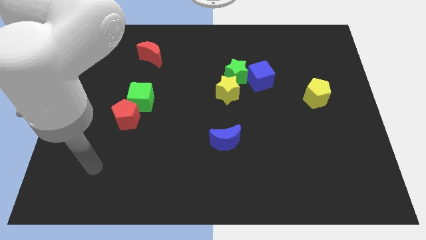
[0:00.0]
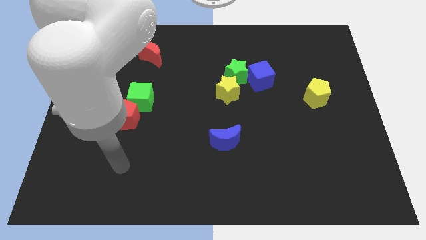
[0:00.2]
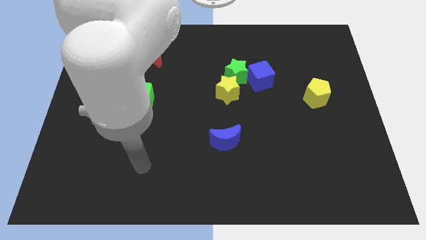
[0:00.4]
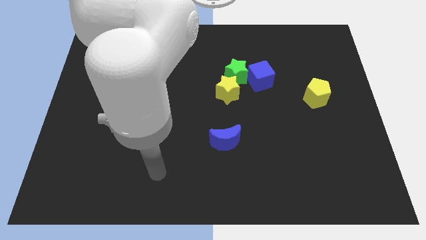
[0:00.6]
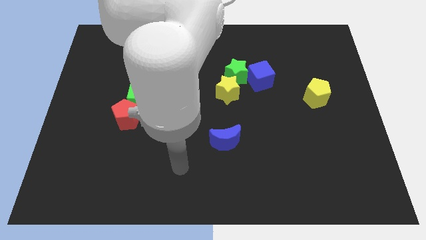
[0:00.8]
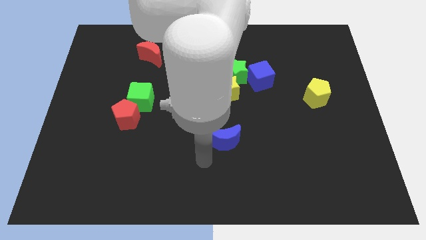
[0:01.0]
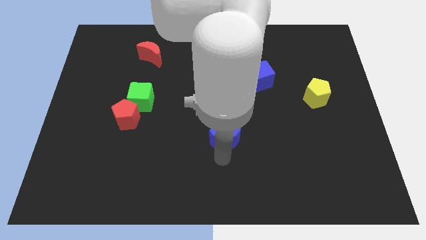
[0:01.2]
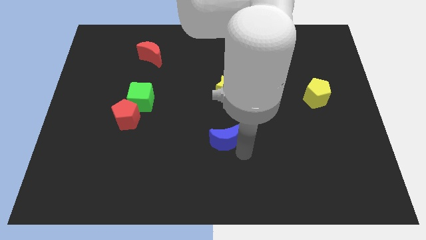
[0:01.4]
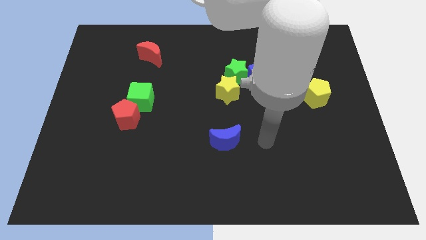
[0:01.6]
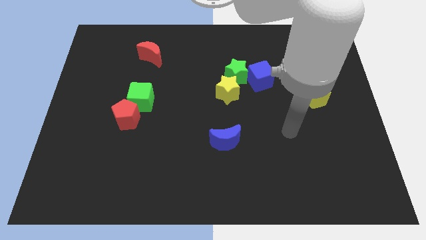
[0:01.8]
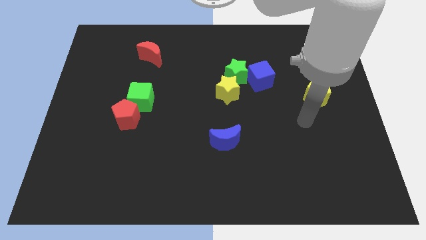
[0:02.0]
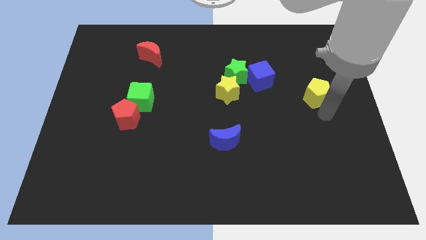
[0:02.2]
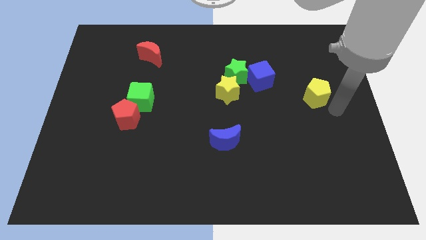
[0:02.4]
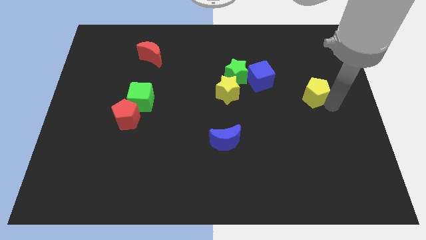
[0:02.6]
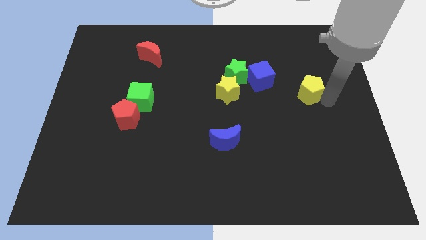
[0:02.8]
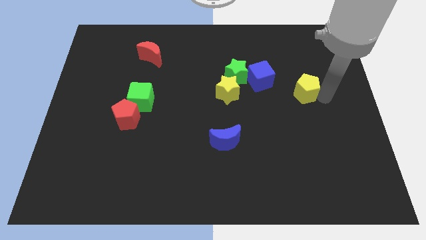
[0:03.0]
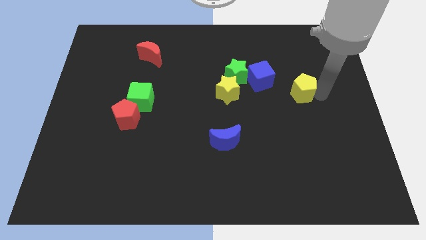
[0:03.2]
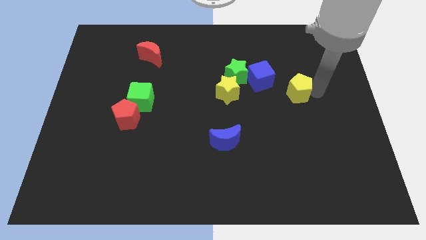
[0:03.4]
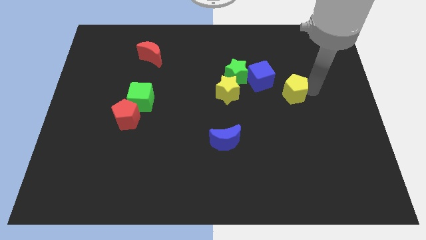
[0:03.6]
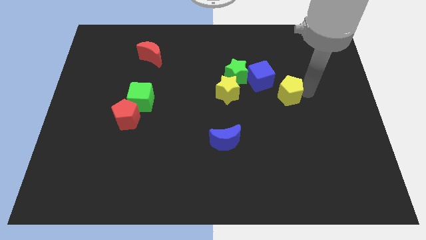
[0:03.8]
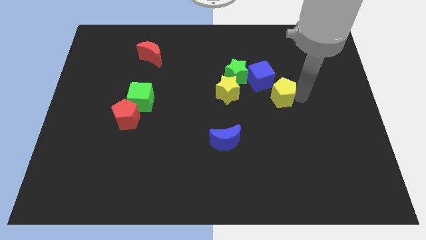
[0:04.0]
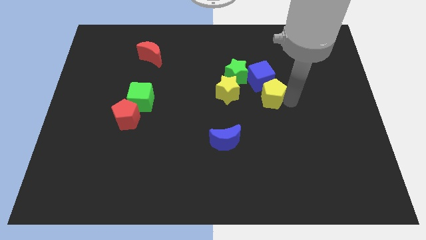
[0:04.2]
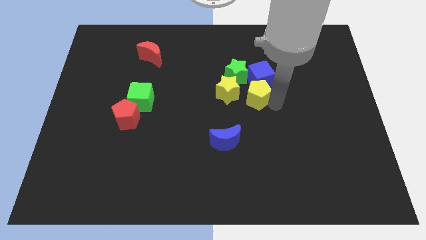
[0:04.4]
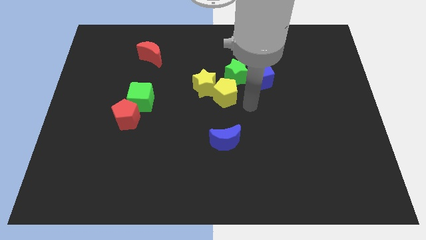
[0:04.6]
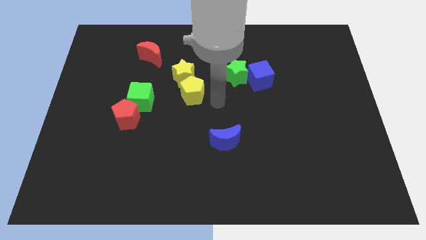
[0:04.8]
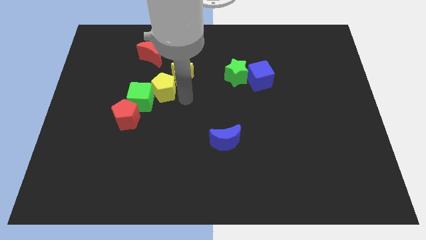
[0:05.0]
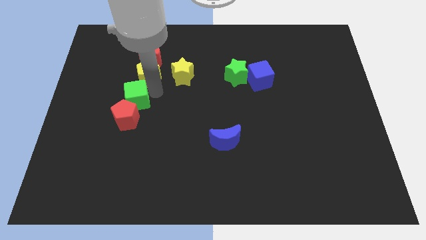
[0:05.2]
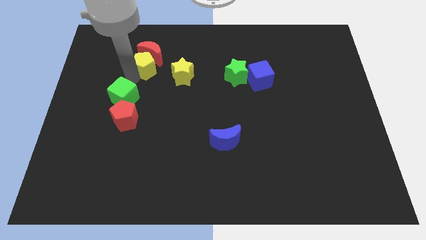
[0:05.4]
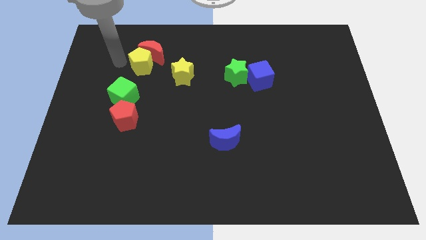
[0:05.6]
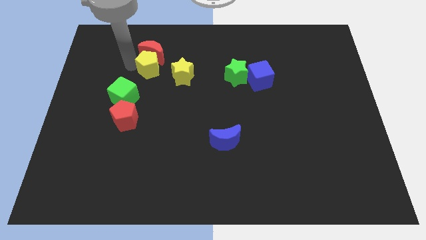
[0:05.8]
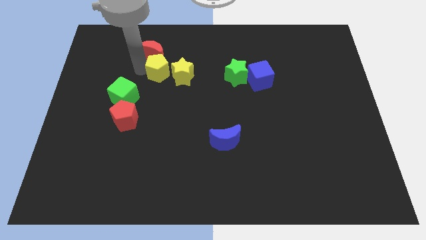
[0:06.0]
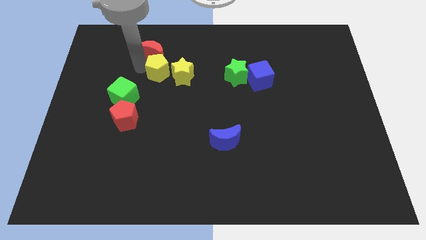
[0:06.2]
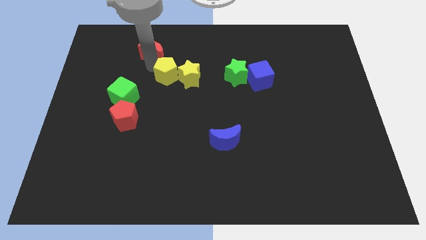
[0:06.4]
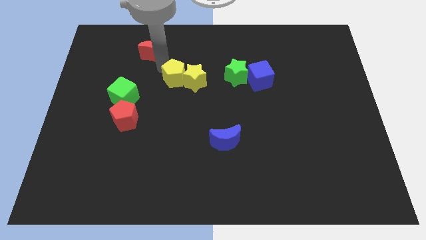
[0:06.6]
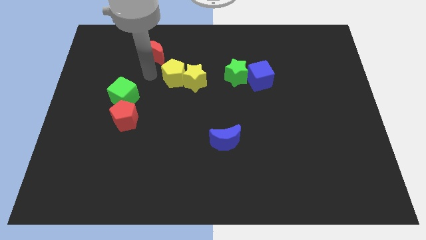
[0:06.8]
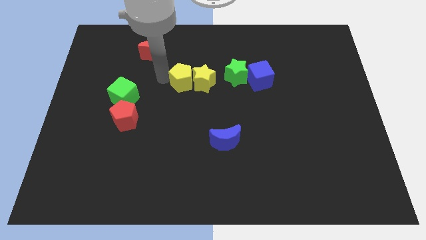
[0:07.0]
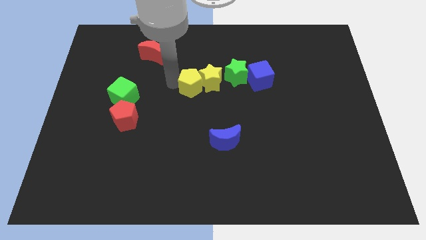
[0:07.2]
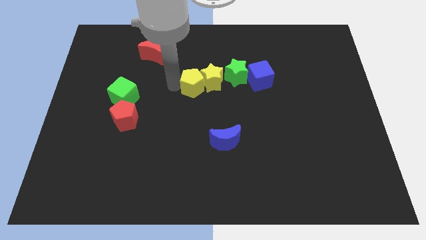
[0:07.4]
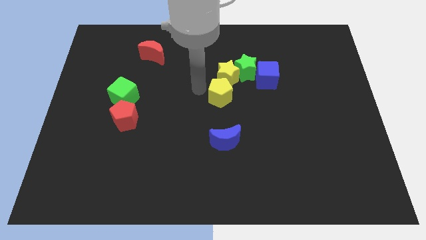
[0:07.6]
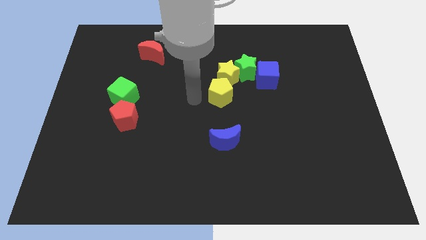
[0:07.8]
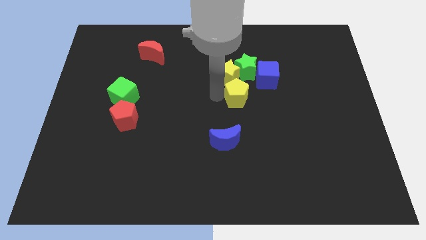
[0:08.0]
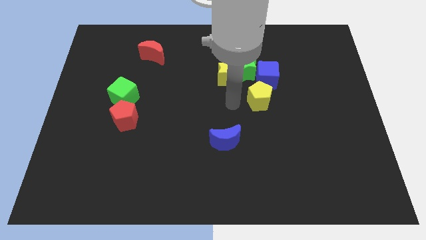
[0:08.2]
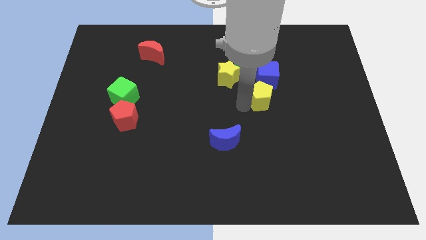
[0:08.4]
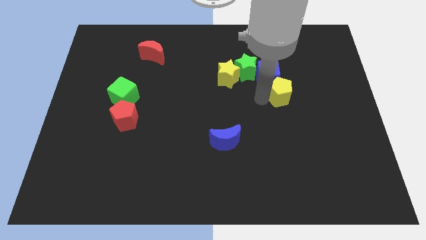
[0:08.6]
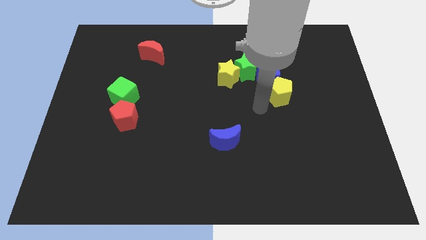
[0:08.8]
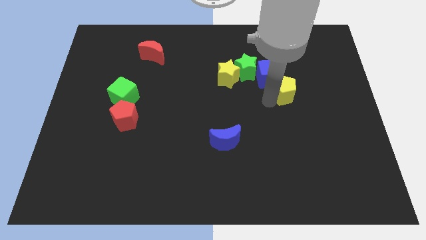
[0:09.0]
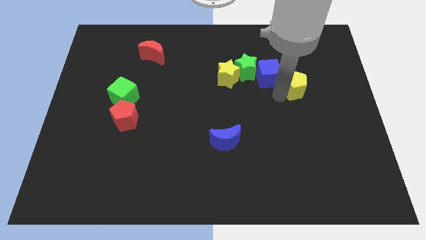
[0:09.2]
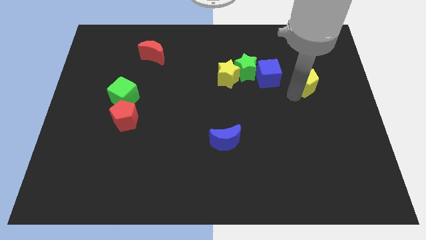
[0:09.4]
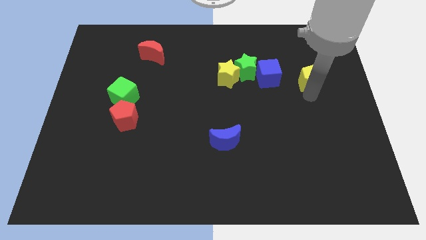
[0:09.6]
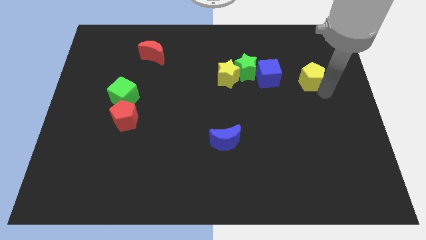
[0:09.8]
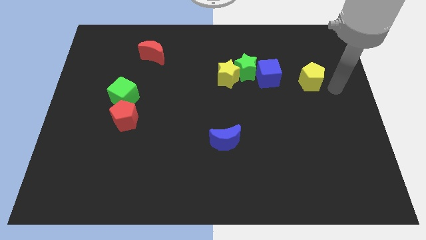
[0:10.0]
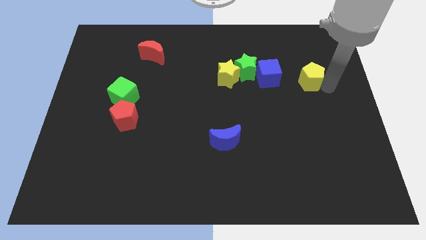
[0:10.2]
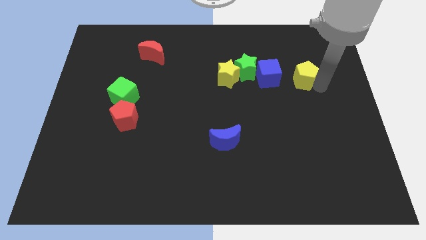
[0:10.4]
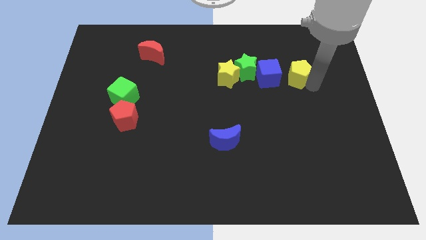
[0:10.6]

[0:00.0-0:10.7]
slightly move the yellow pentagon up and left

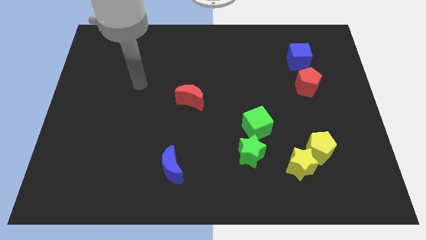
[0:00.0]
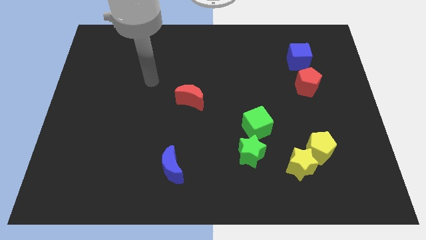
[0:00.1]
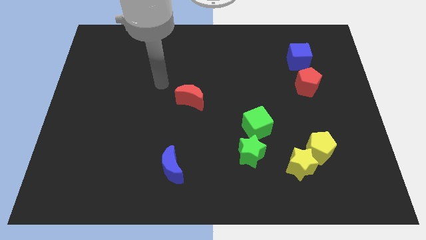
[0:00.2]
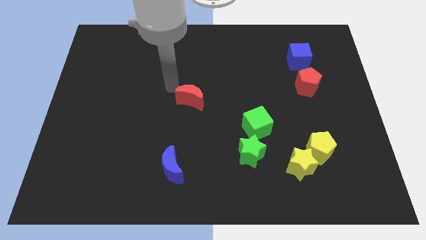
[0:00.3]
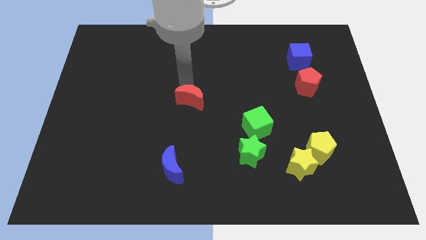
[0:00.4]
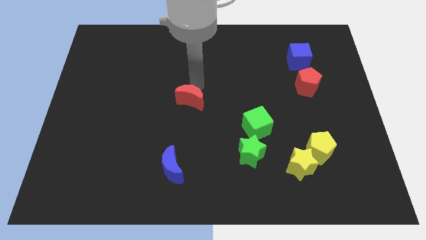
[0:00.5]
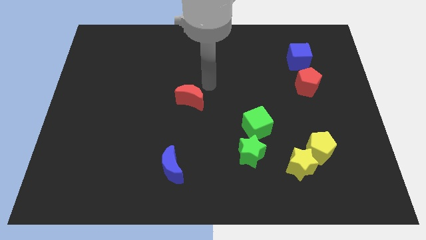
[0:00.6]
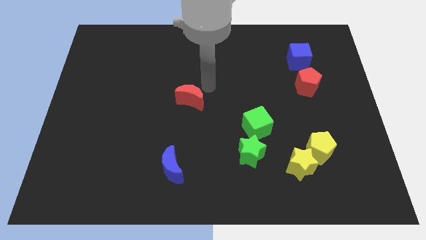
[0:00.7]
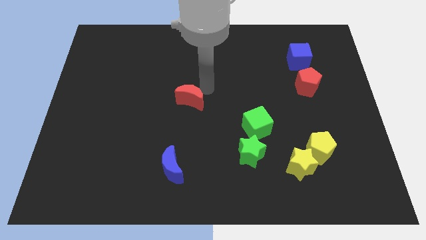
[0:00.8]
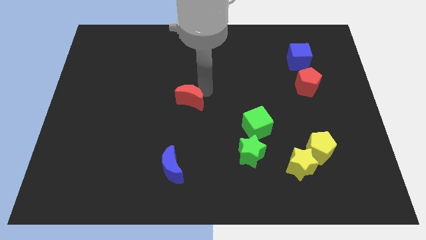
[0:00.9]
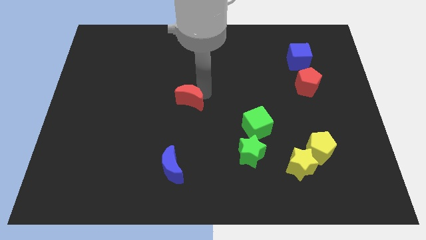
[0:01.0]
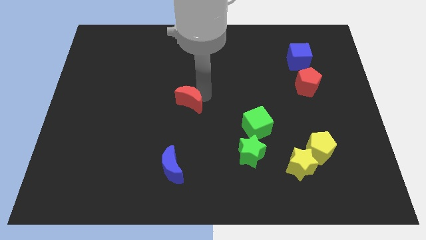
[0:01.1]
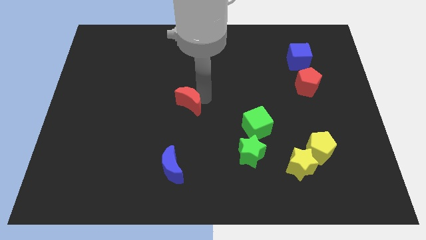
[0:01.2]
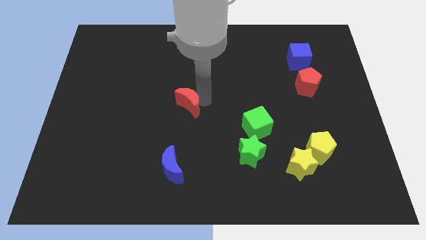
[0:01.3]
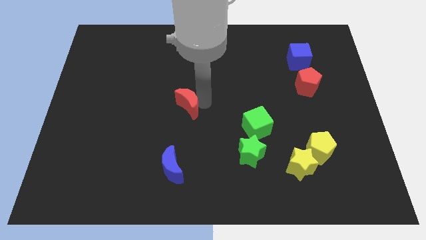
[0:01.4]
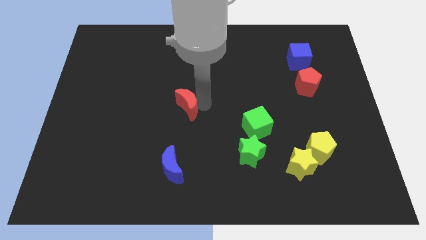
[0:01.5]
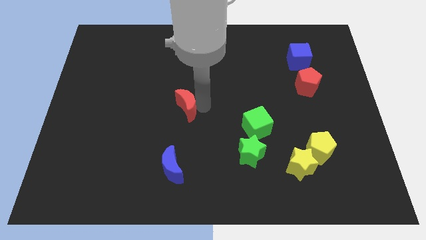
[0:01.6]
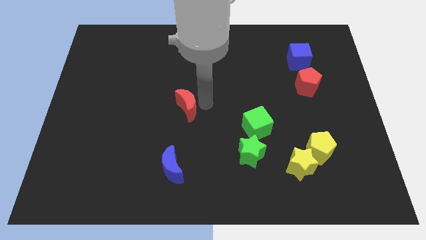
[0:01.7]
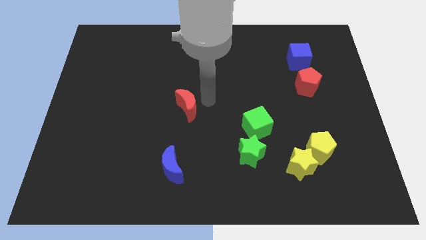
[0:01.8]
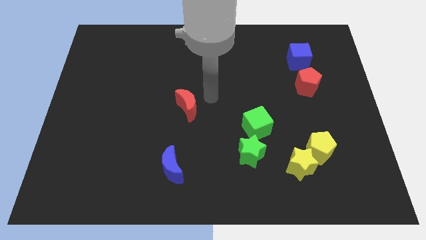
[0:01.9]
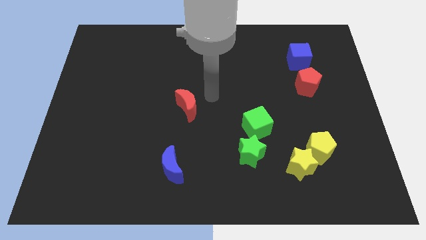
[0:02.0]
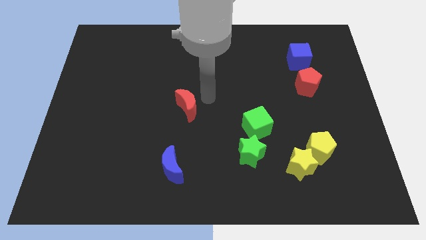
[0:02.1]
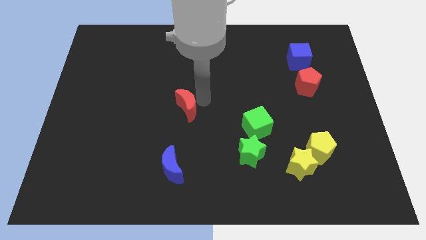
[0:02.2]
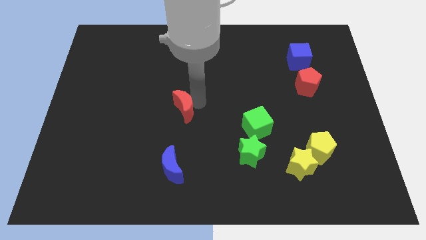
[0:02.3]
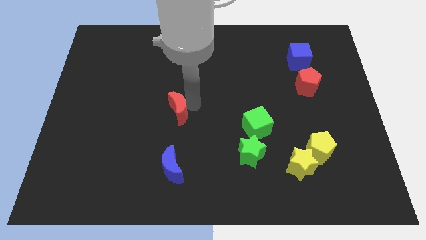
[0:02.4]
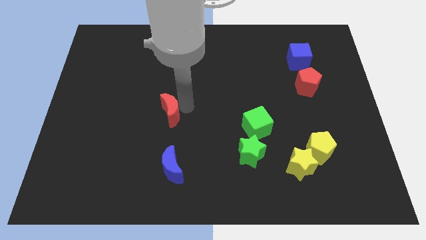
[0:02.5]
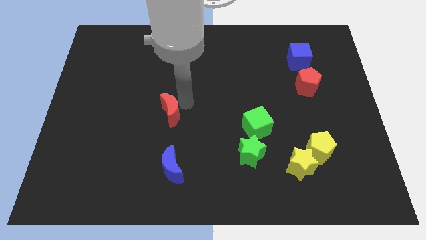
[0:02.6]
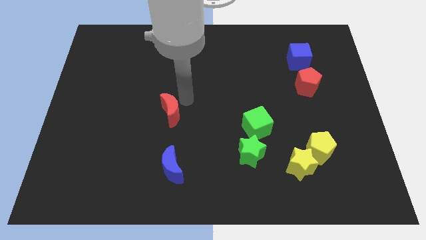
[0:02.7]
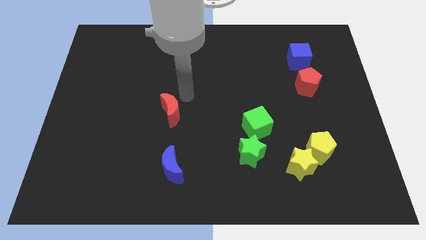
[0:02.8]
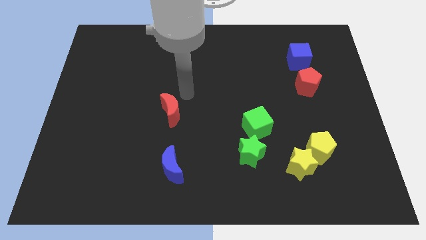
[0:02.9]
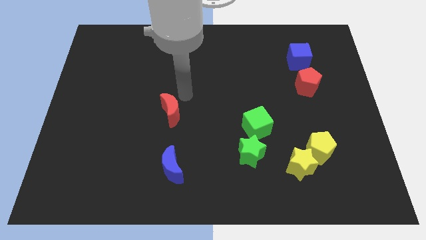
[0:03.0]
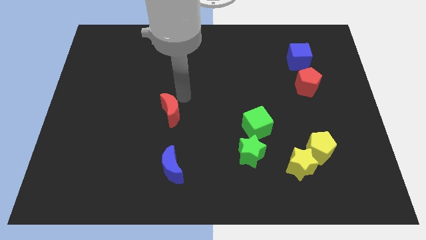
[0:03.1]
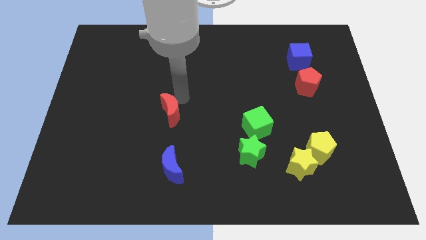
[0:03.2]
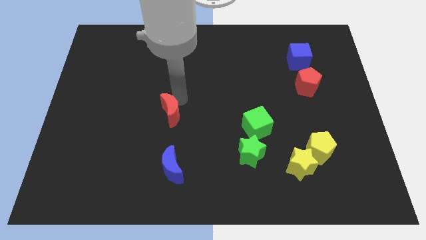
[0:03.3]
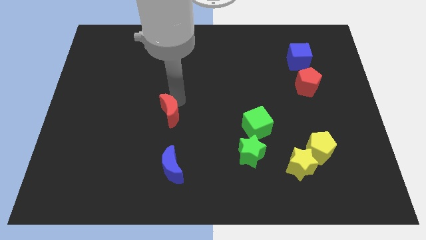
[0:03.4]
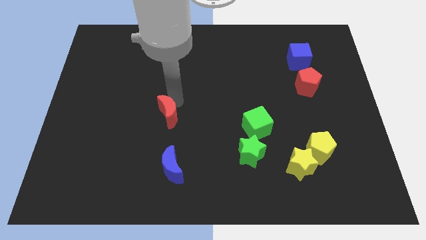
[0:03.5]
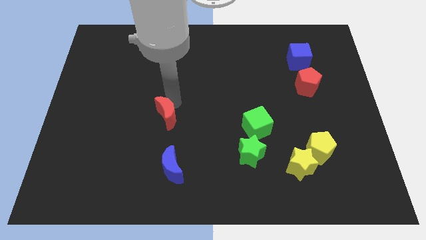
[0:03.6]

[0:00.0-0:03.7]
slide the red moon diagonally downwards and left somewhat
